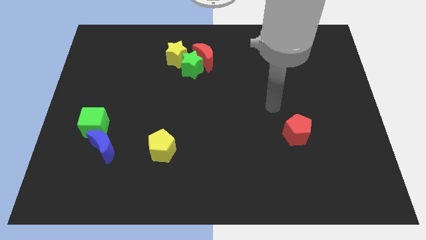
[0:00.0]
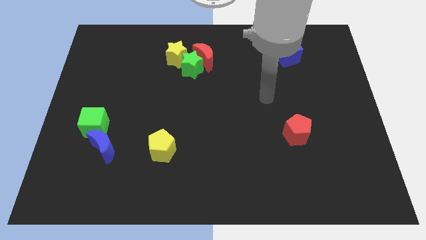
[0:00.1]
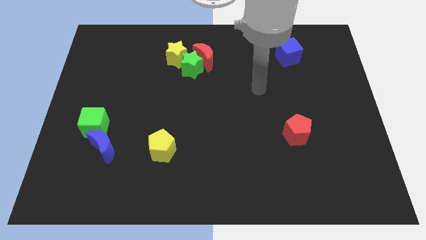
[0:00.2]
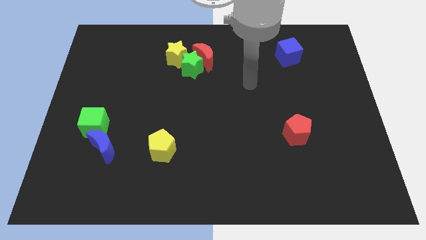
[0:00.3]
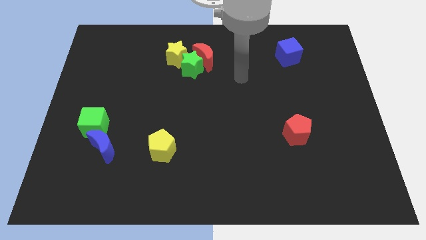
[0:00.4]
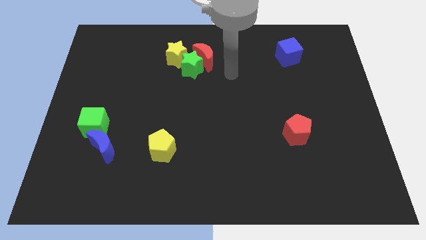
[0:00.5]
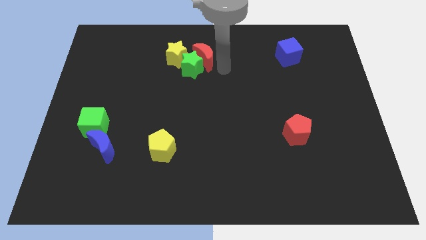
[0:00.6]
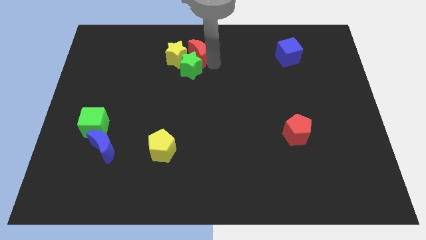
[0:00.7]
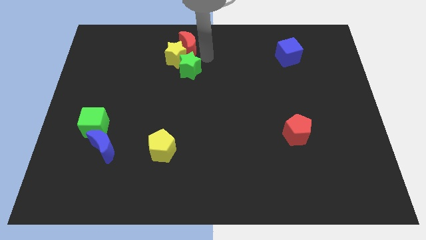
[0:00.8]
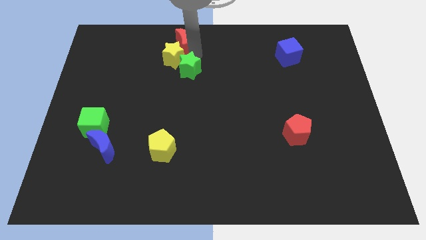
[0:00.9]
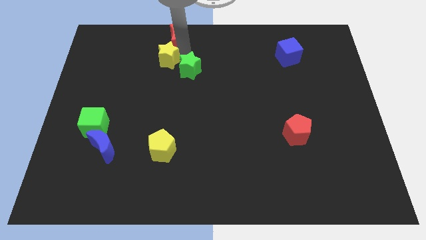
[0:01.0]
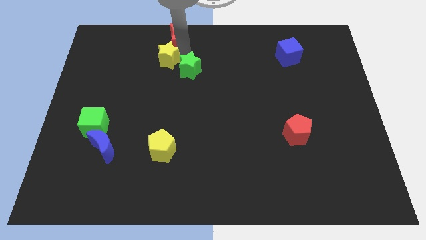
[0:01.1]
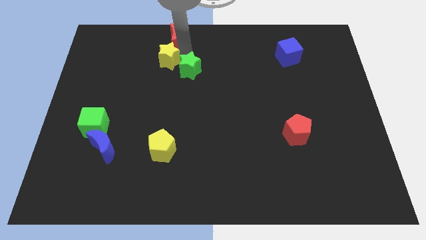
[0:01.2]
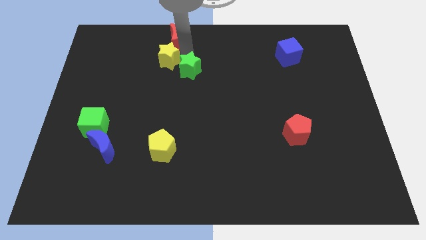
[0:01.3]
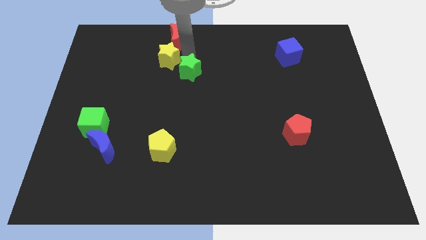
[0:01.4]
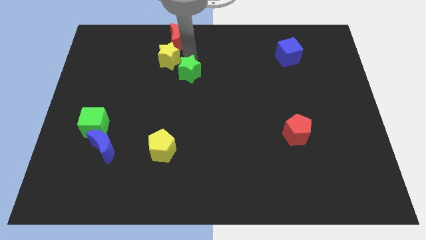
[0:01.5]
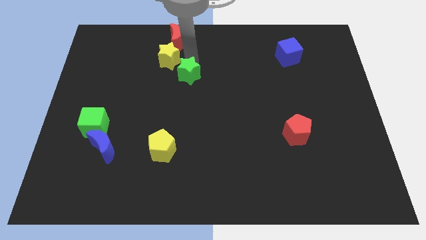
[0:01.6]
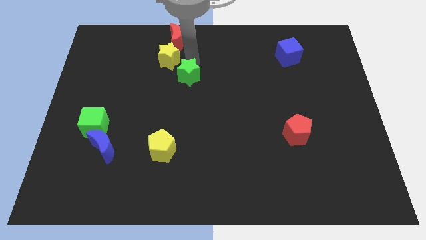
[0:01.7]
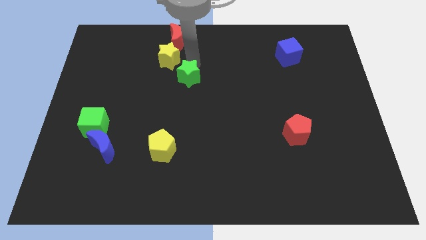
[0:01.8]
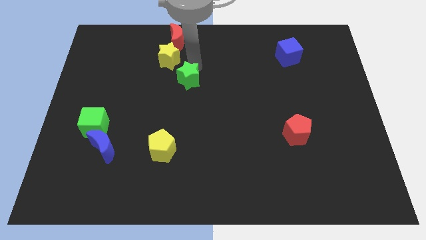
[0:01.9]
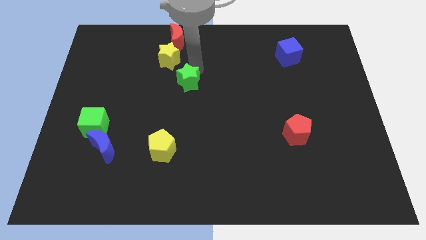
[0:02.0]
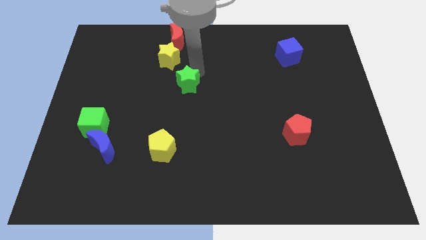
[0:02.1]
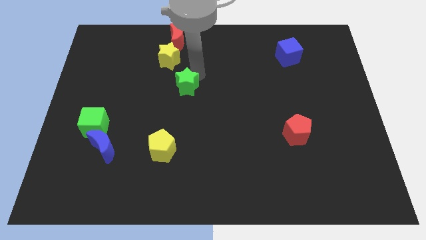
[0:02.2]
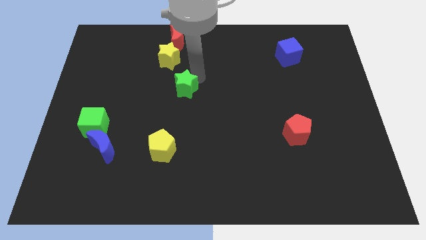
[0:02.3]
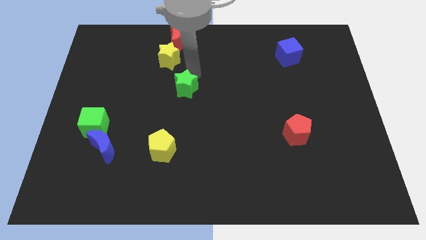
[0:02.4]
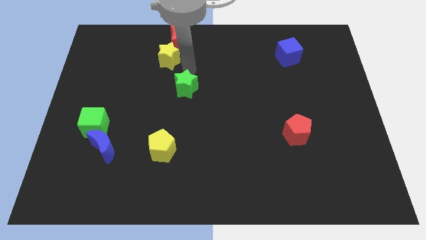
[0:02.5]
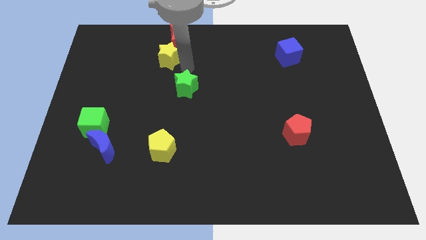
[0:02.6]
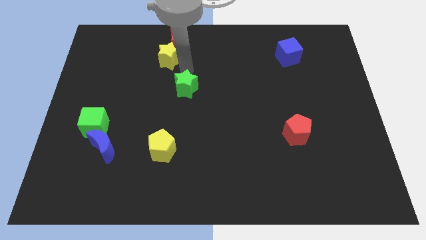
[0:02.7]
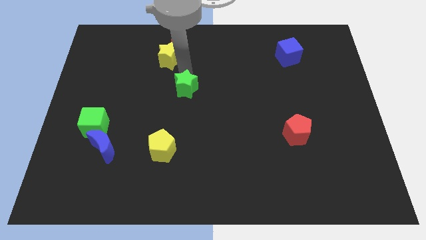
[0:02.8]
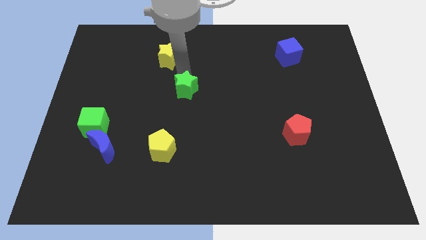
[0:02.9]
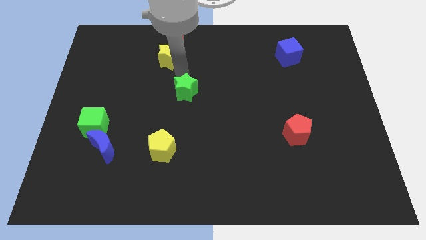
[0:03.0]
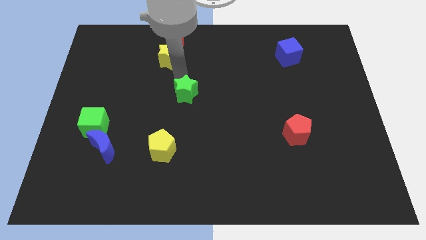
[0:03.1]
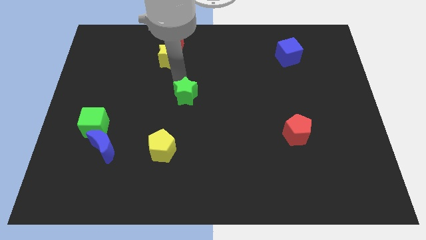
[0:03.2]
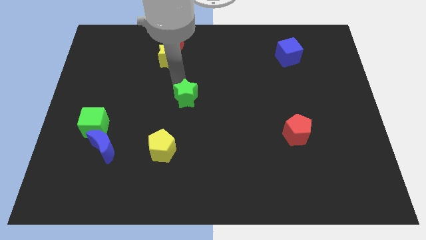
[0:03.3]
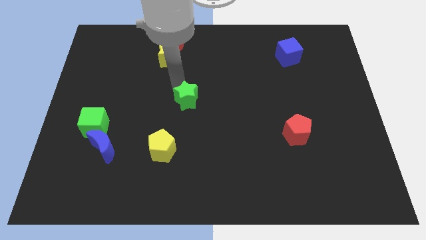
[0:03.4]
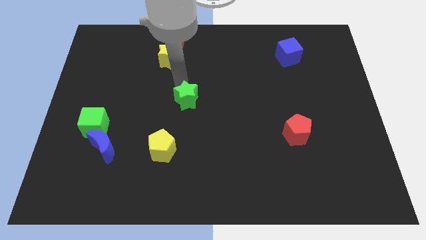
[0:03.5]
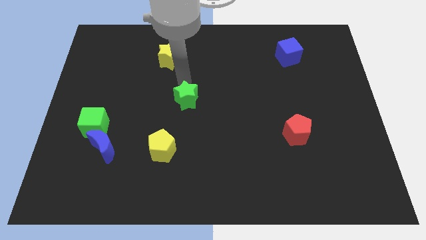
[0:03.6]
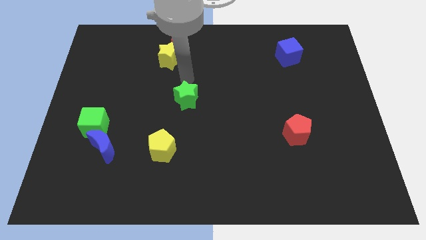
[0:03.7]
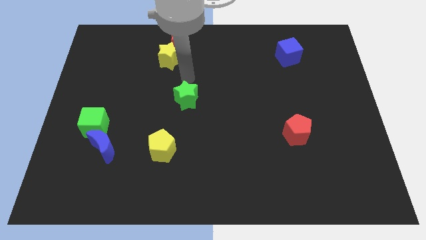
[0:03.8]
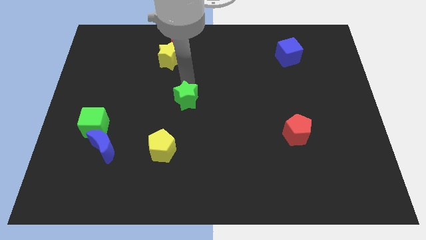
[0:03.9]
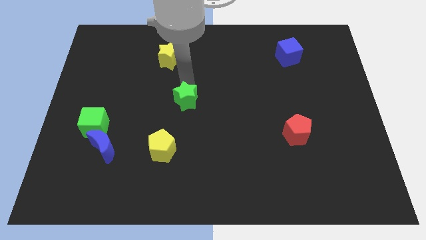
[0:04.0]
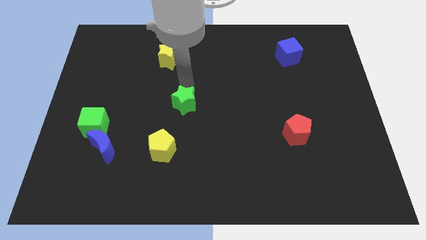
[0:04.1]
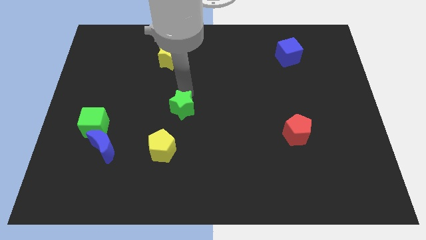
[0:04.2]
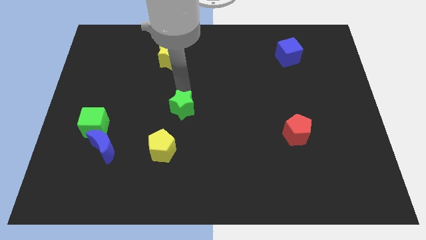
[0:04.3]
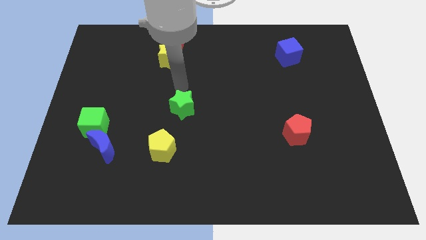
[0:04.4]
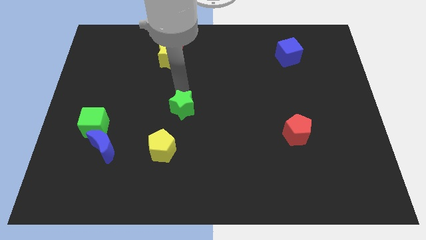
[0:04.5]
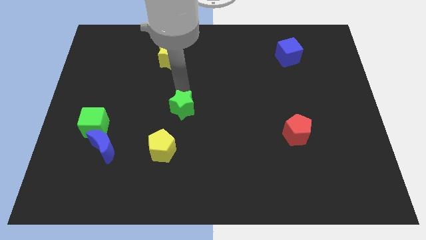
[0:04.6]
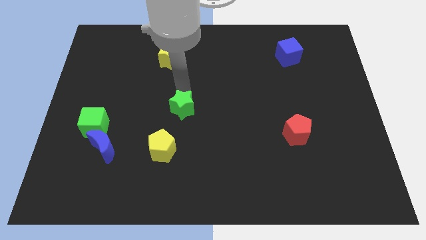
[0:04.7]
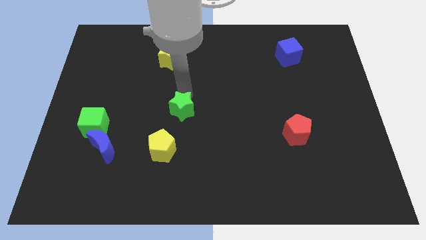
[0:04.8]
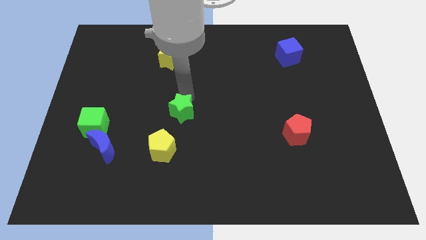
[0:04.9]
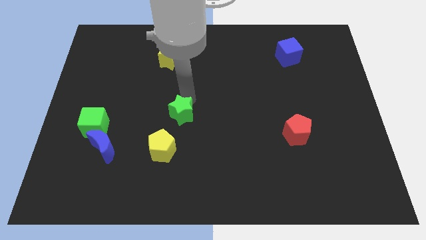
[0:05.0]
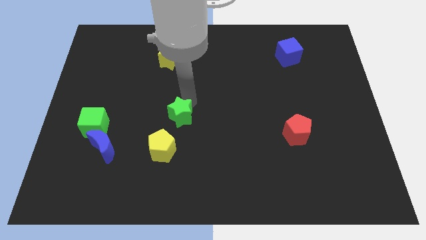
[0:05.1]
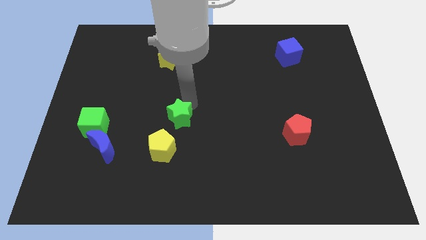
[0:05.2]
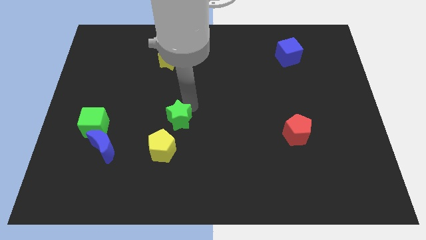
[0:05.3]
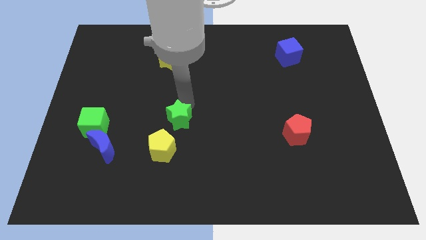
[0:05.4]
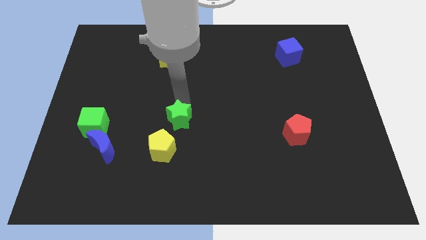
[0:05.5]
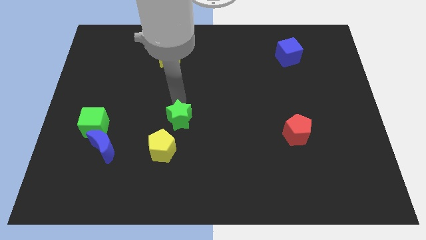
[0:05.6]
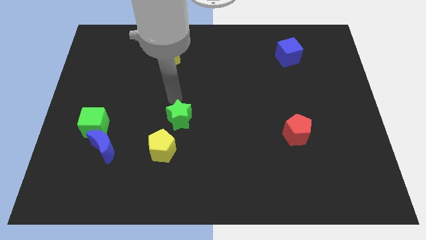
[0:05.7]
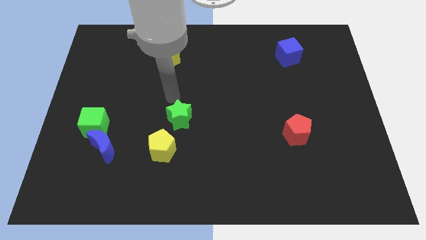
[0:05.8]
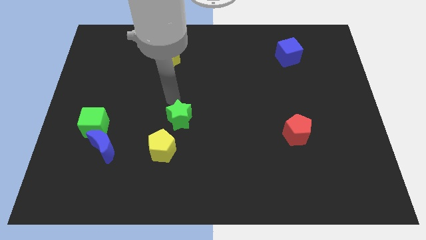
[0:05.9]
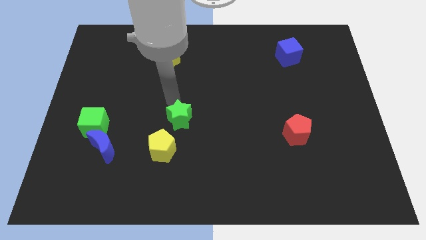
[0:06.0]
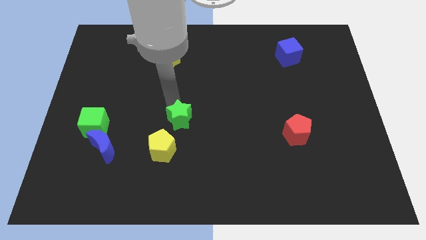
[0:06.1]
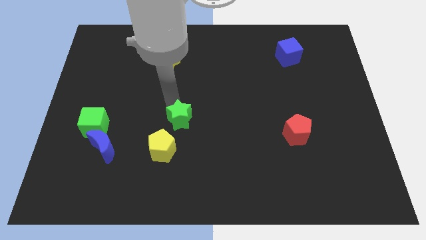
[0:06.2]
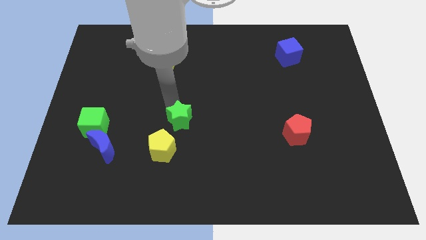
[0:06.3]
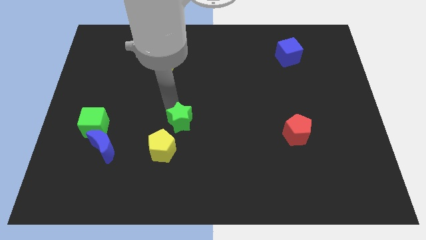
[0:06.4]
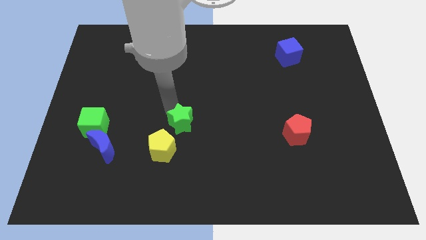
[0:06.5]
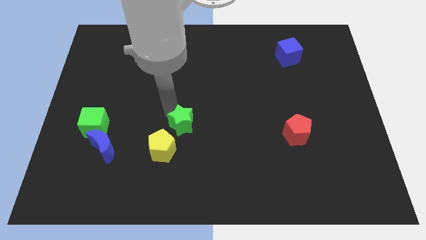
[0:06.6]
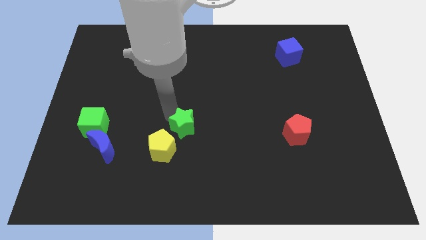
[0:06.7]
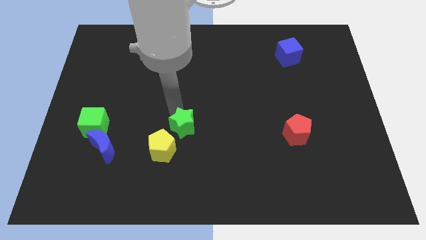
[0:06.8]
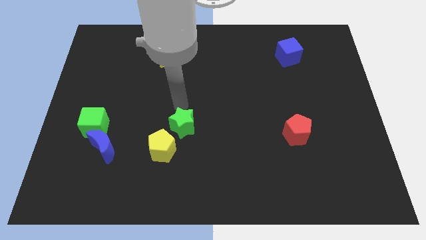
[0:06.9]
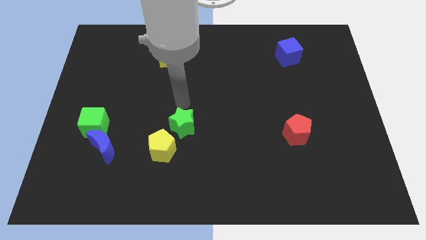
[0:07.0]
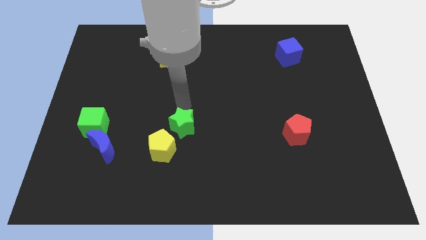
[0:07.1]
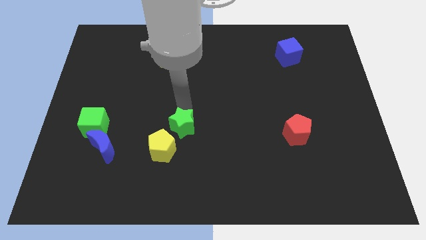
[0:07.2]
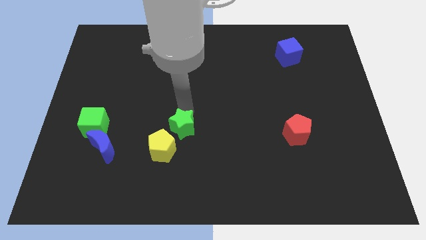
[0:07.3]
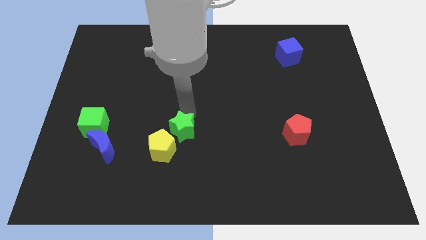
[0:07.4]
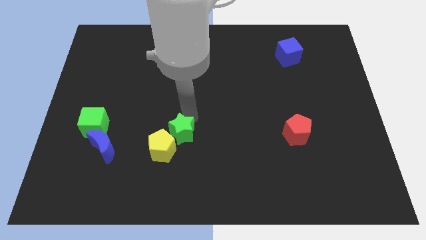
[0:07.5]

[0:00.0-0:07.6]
move the green star downwards

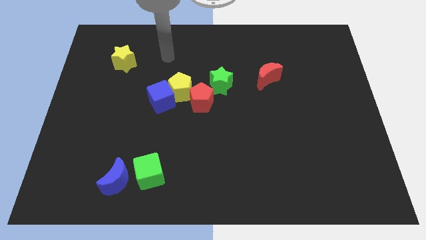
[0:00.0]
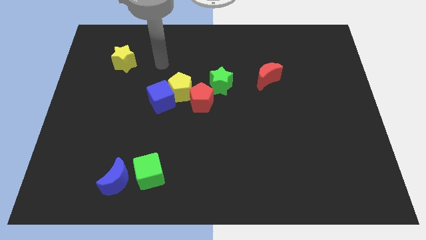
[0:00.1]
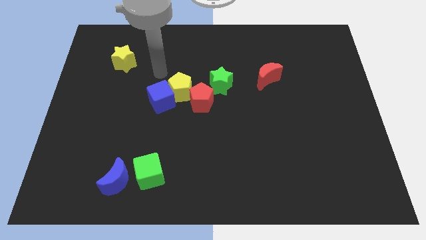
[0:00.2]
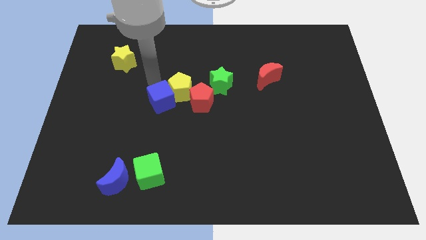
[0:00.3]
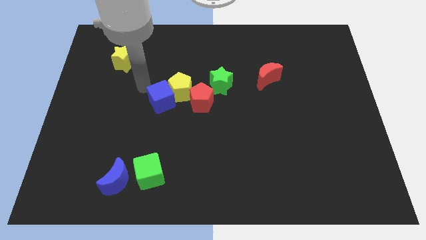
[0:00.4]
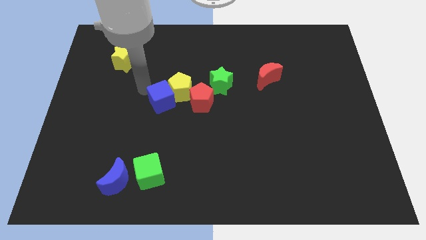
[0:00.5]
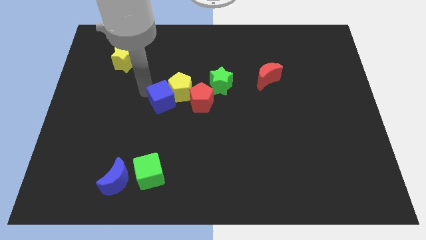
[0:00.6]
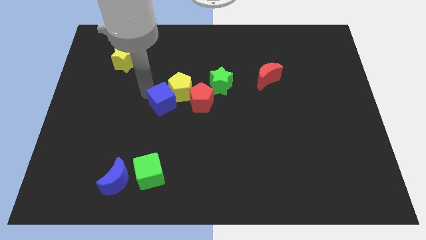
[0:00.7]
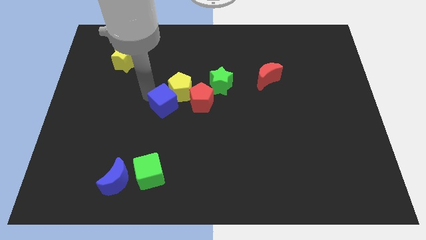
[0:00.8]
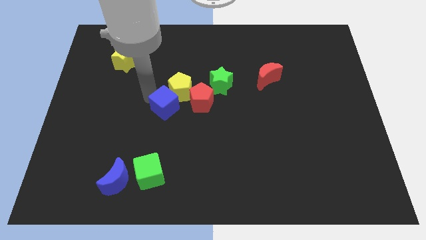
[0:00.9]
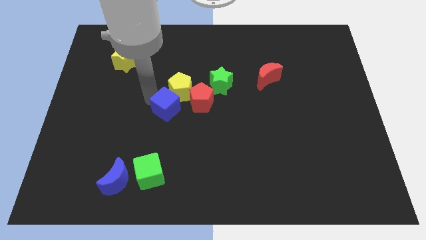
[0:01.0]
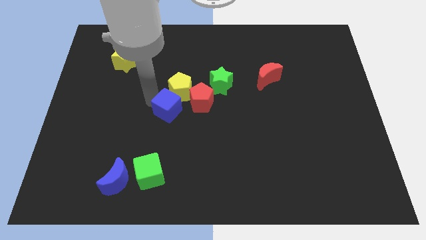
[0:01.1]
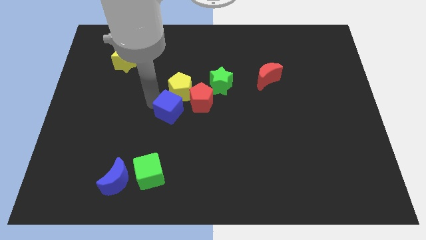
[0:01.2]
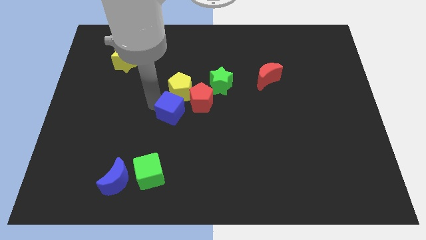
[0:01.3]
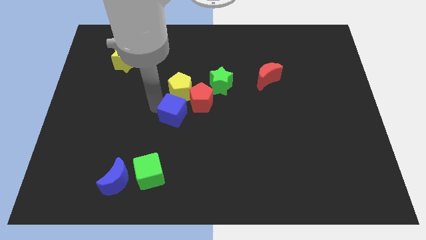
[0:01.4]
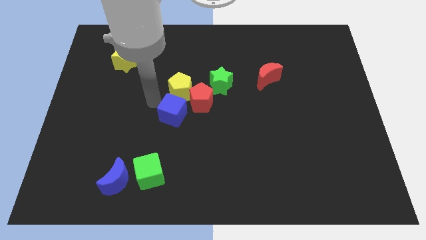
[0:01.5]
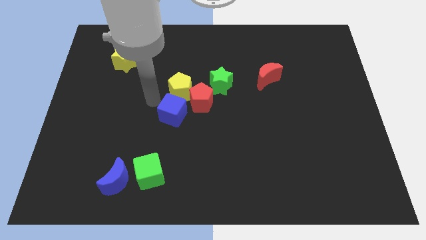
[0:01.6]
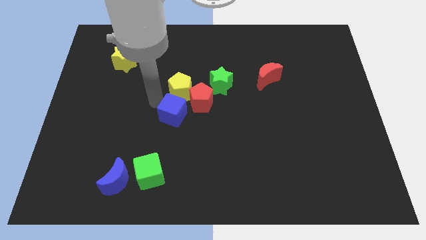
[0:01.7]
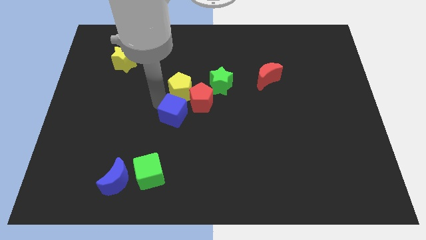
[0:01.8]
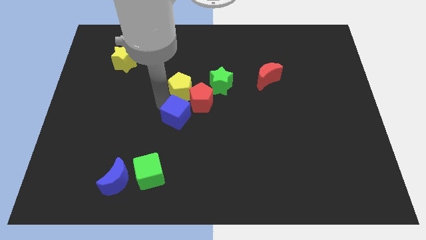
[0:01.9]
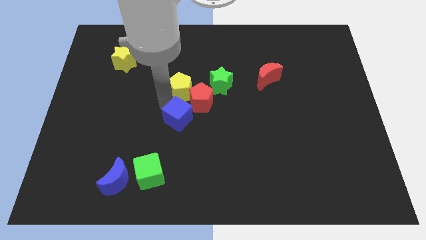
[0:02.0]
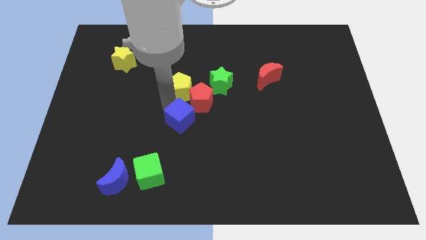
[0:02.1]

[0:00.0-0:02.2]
push the blue cube a bit down and right diagonally
